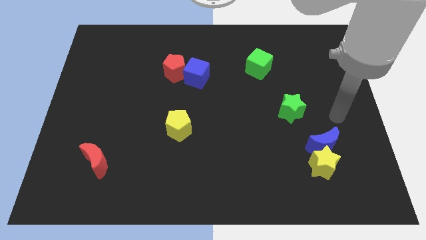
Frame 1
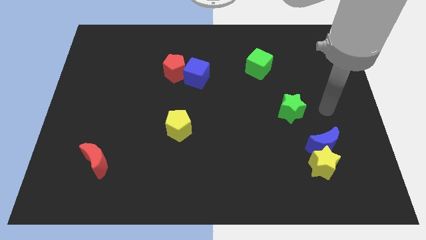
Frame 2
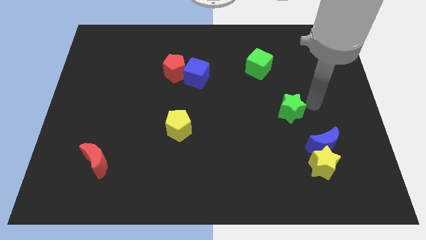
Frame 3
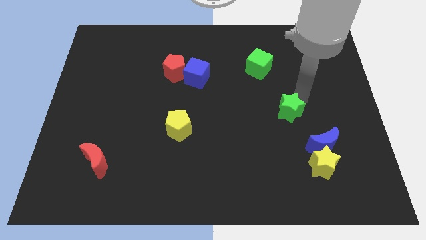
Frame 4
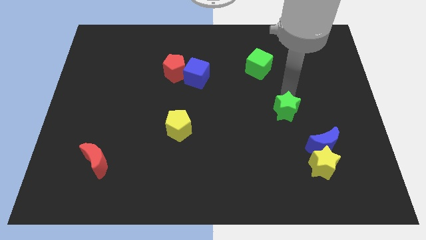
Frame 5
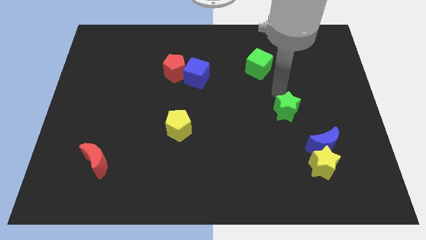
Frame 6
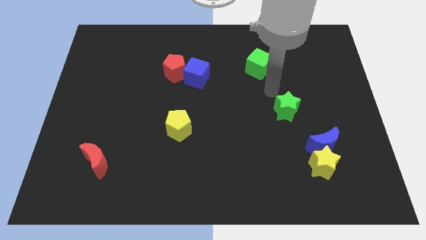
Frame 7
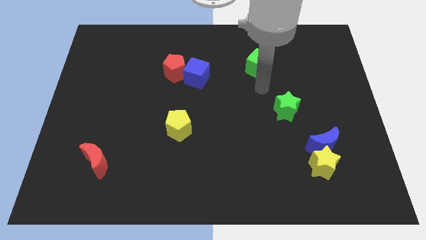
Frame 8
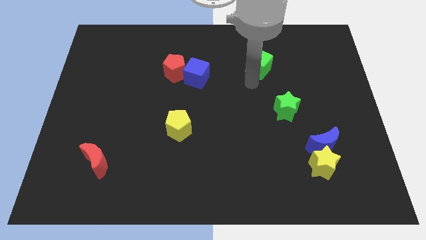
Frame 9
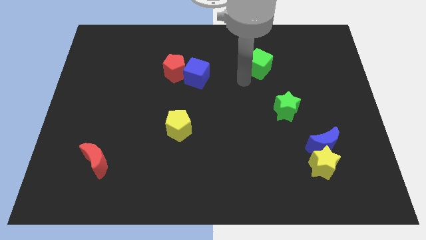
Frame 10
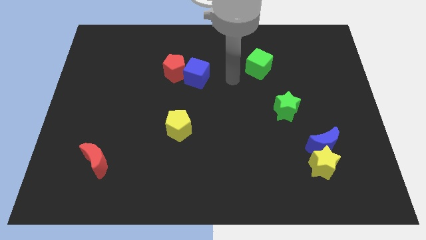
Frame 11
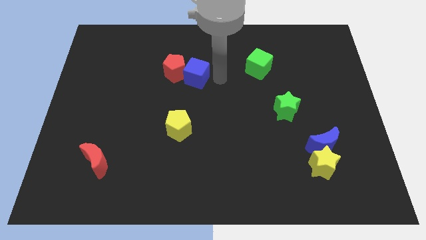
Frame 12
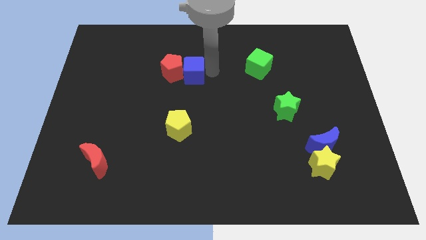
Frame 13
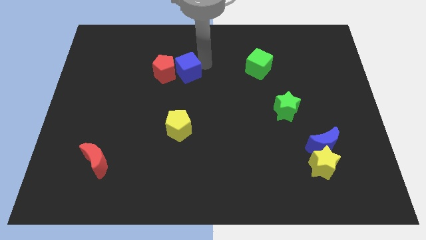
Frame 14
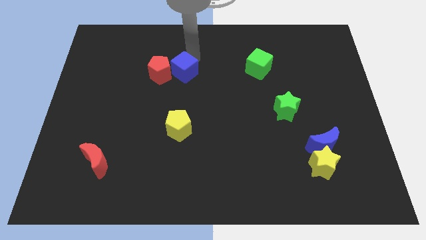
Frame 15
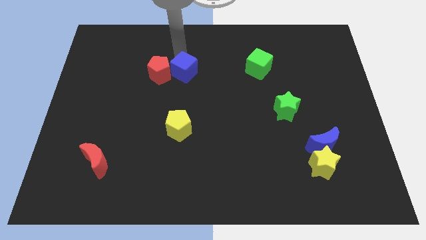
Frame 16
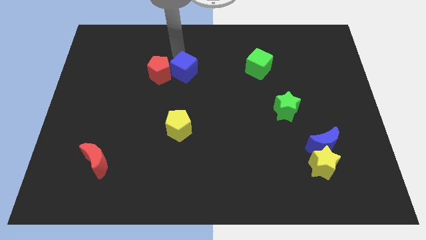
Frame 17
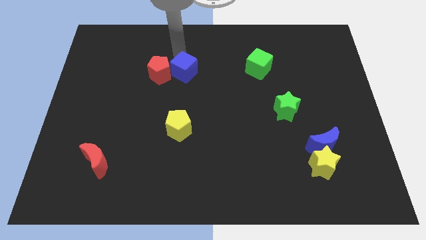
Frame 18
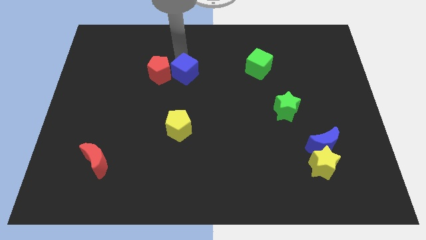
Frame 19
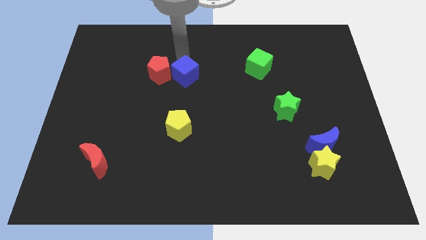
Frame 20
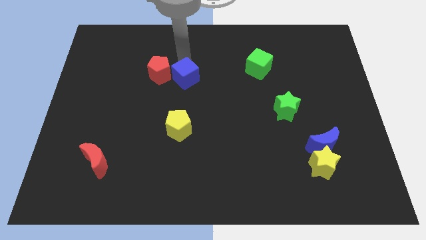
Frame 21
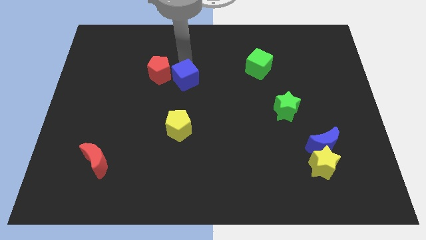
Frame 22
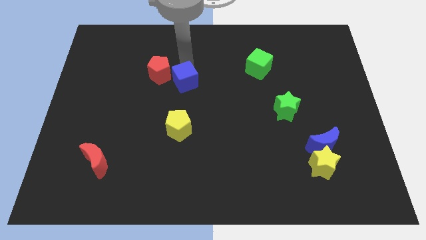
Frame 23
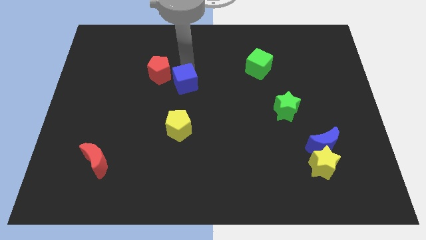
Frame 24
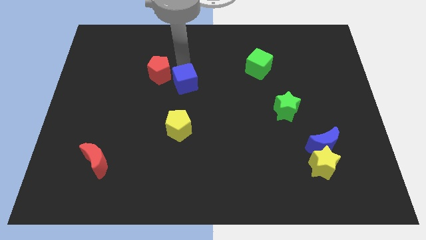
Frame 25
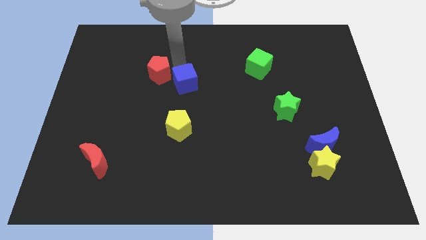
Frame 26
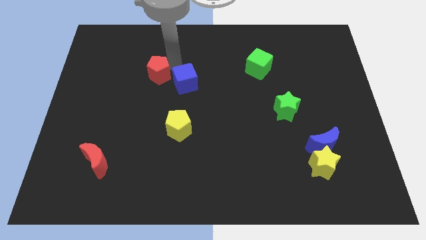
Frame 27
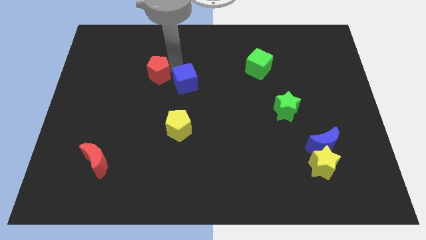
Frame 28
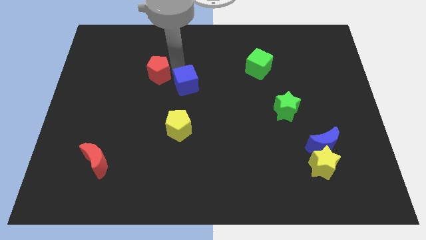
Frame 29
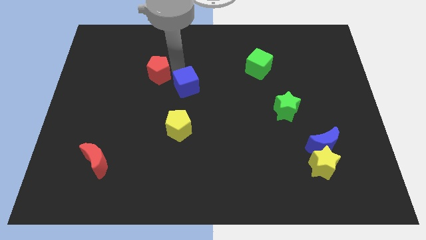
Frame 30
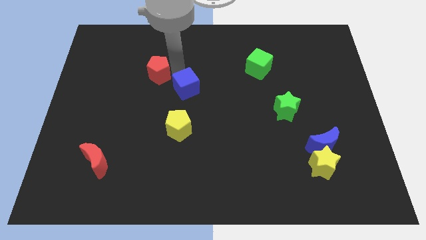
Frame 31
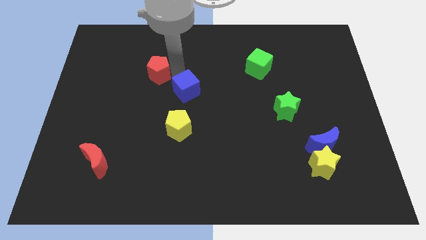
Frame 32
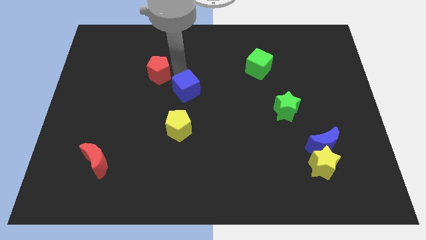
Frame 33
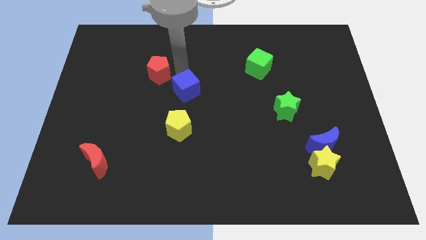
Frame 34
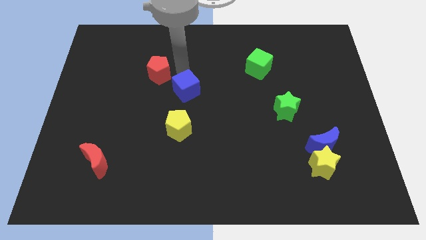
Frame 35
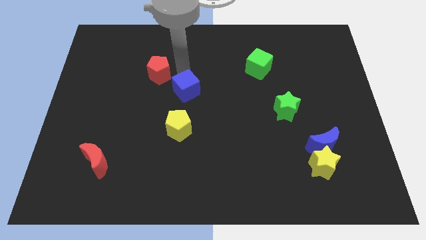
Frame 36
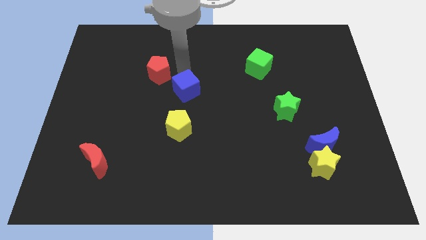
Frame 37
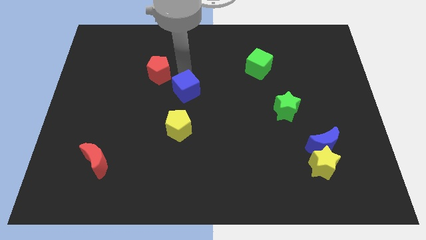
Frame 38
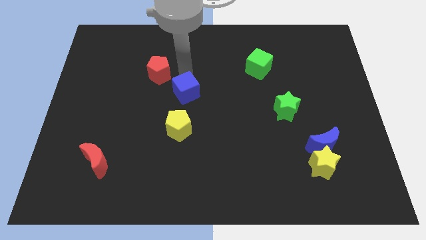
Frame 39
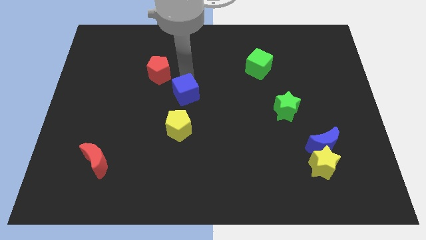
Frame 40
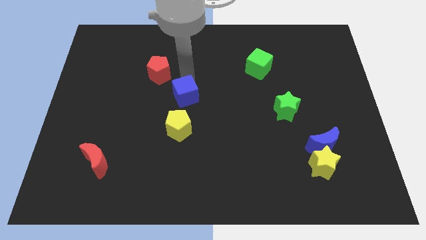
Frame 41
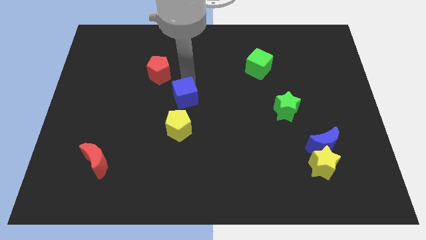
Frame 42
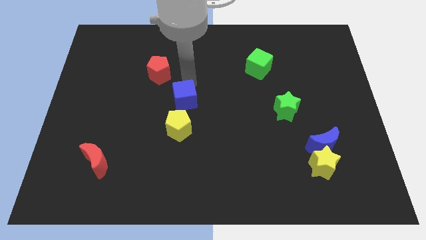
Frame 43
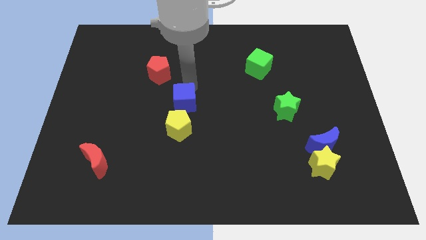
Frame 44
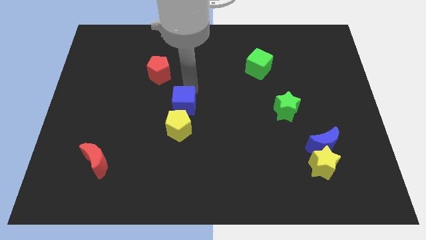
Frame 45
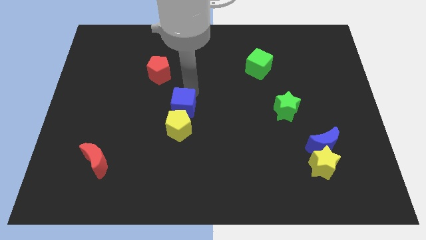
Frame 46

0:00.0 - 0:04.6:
move the blue cube close to the yellow pentagon

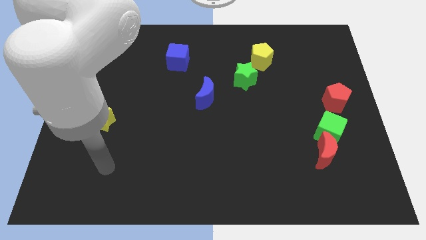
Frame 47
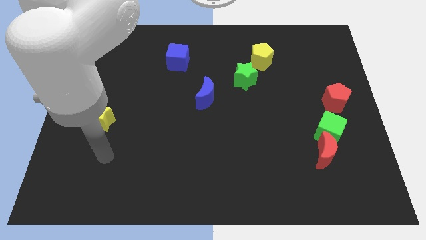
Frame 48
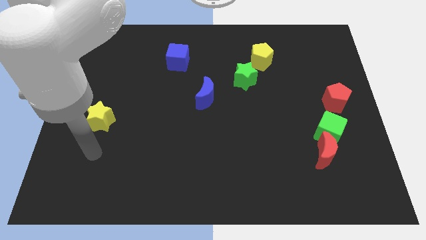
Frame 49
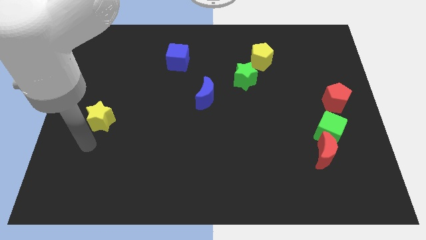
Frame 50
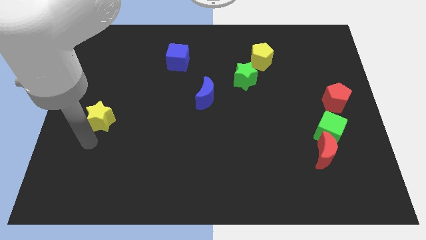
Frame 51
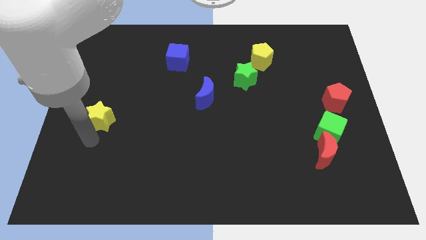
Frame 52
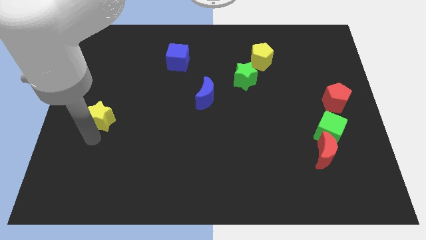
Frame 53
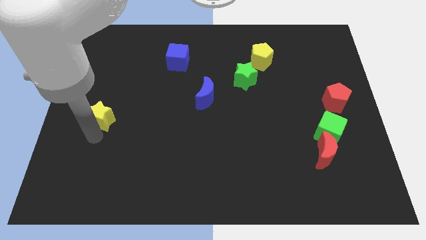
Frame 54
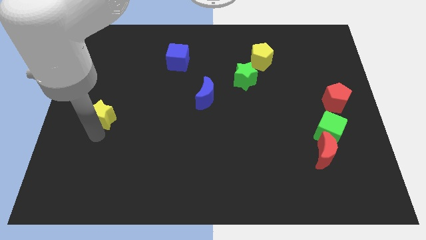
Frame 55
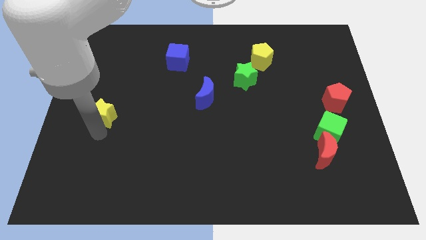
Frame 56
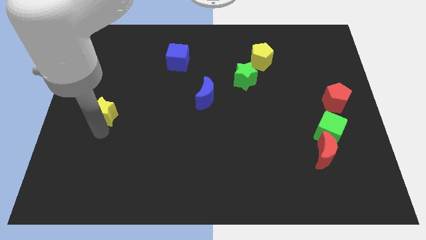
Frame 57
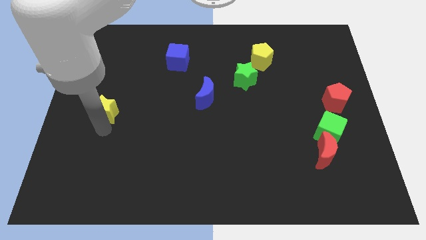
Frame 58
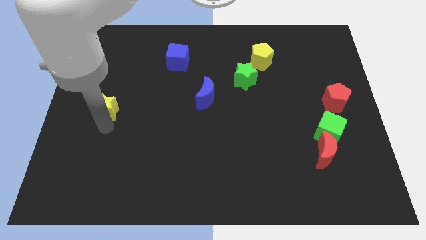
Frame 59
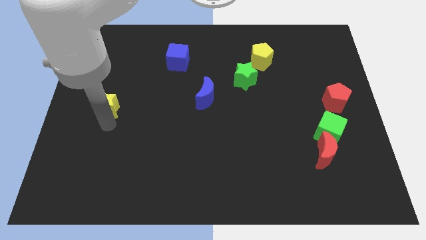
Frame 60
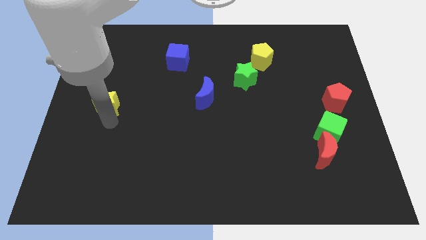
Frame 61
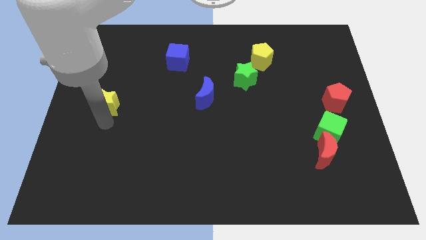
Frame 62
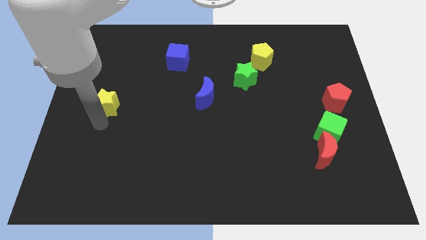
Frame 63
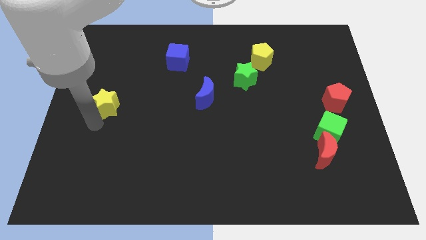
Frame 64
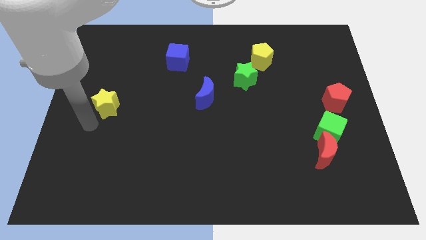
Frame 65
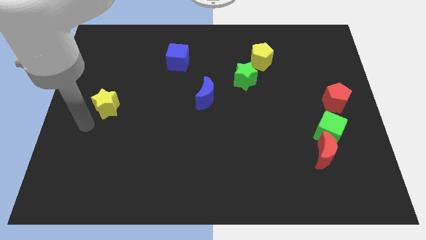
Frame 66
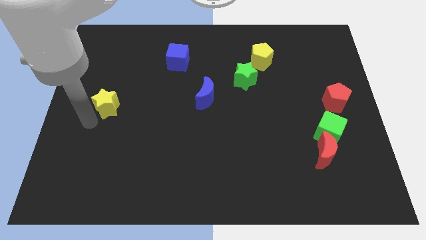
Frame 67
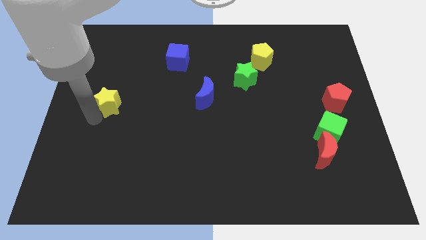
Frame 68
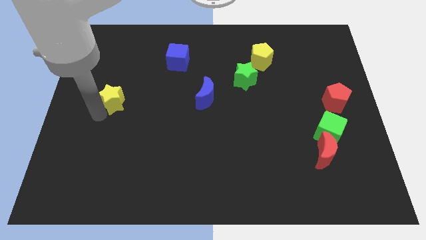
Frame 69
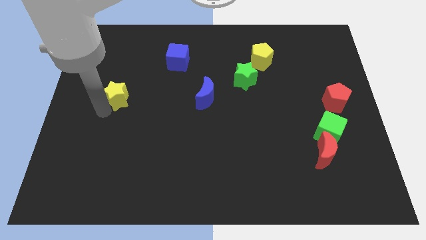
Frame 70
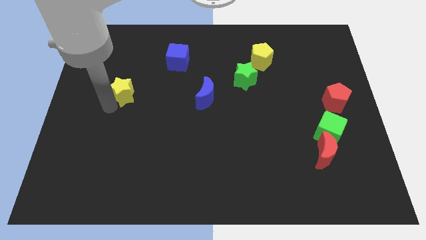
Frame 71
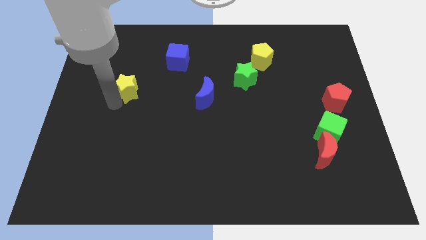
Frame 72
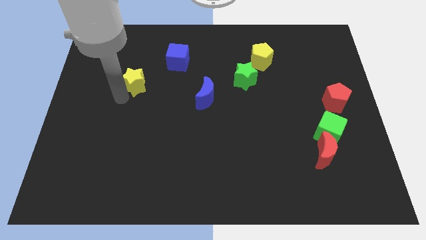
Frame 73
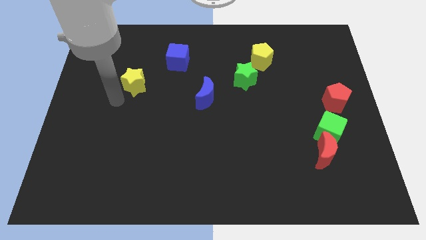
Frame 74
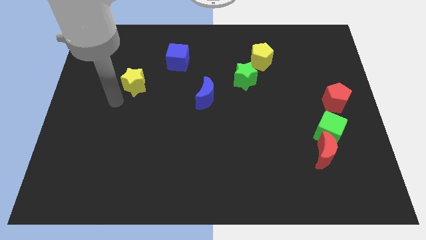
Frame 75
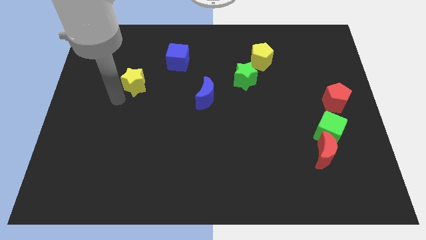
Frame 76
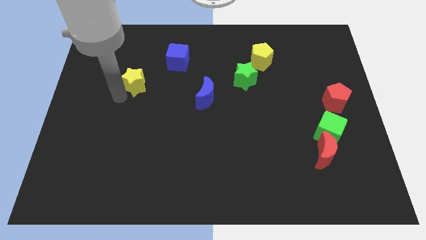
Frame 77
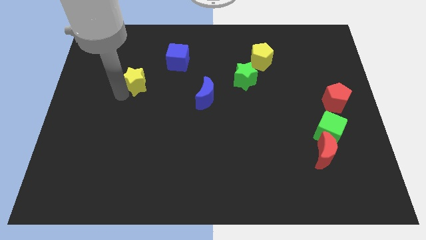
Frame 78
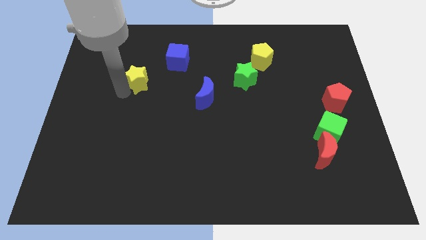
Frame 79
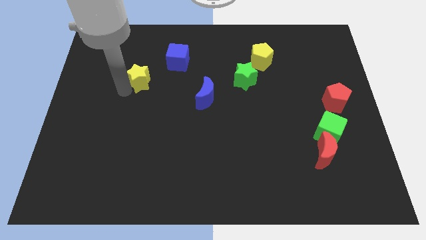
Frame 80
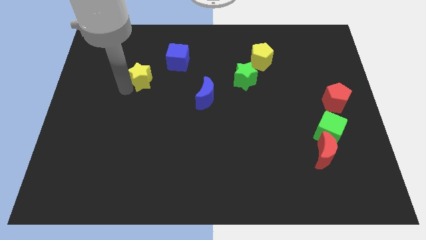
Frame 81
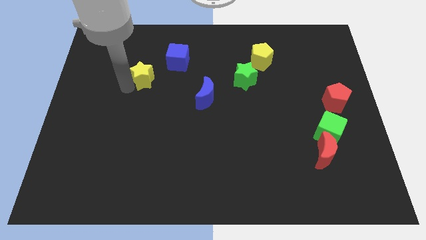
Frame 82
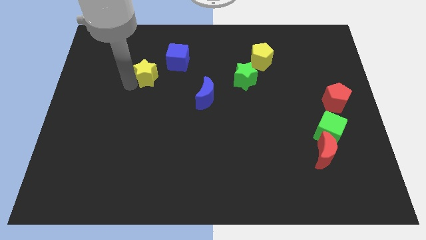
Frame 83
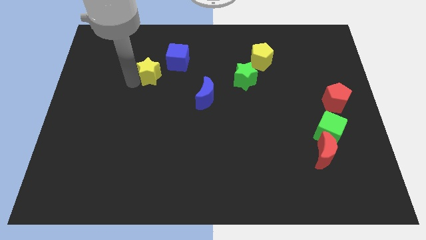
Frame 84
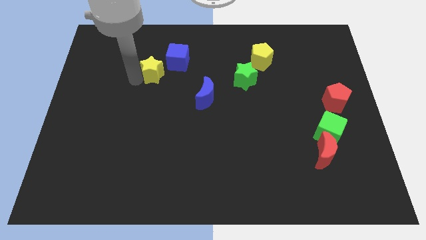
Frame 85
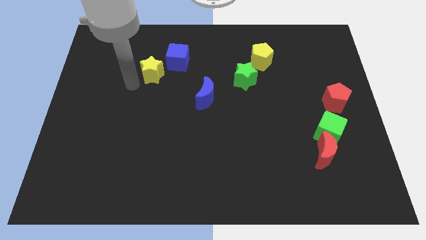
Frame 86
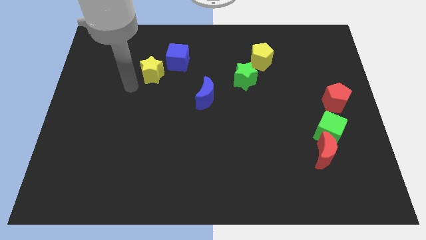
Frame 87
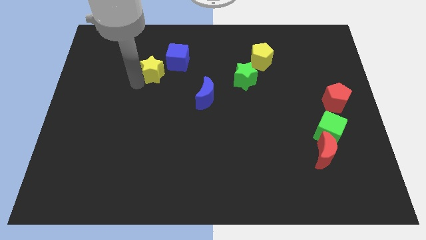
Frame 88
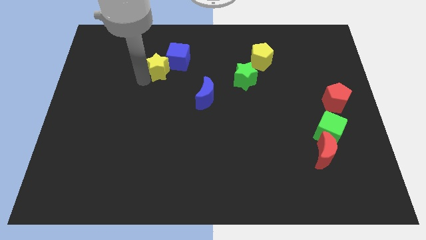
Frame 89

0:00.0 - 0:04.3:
move the yellow star to the blue cube
